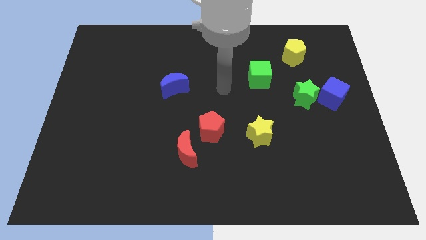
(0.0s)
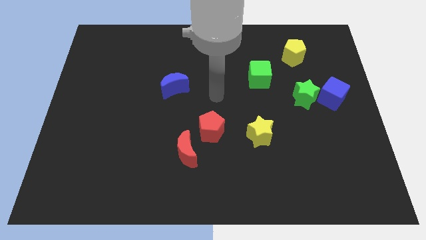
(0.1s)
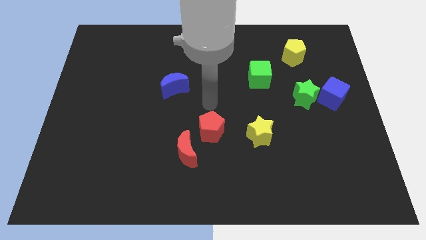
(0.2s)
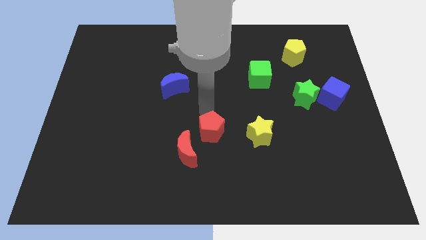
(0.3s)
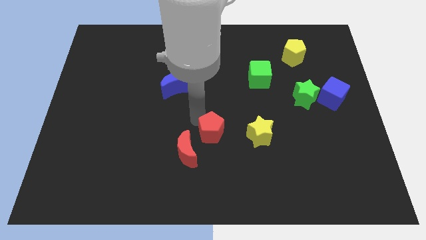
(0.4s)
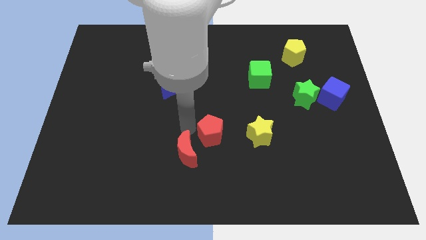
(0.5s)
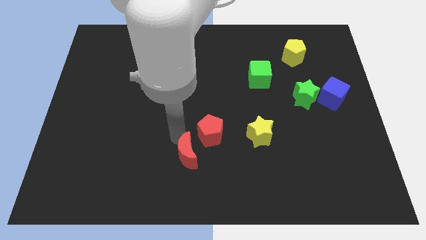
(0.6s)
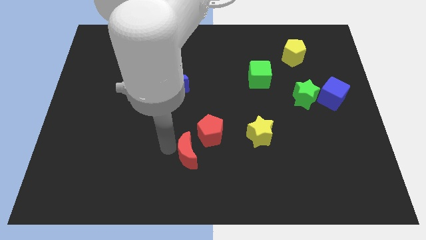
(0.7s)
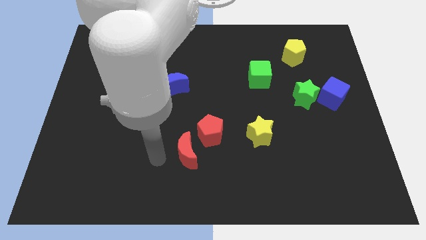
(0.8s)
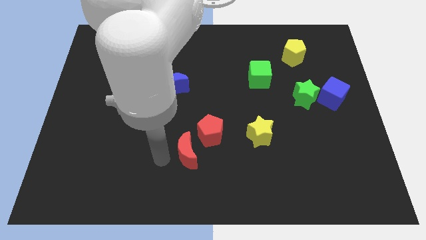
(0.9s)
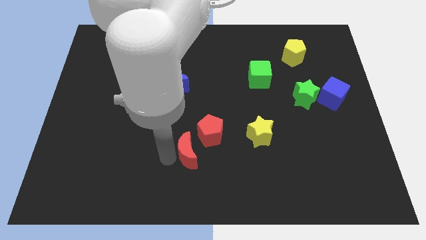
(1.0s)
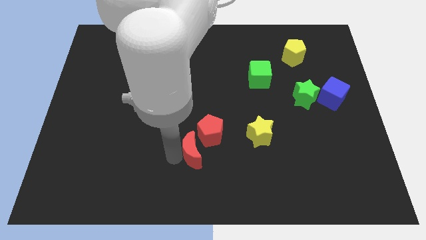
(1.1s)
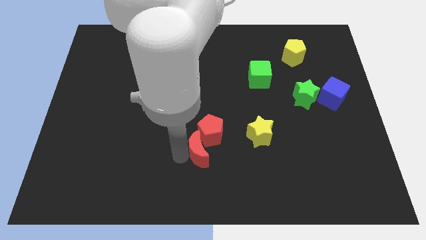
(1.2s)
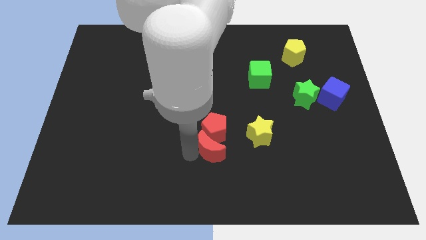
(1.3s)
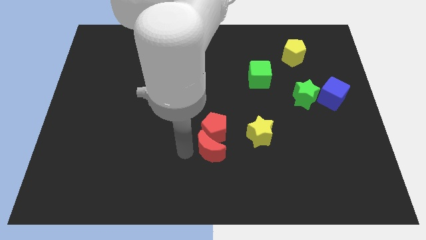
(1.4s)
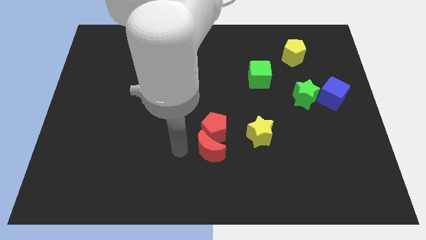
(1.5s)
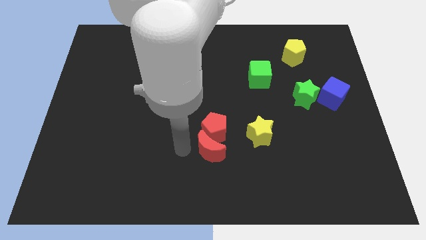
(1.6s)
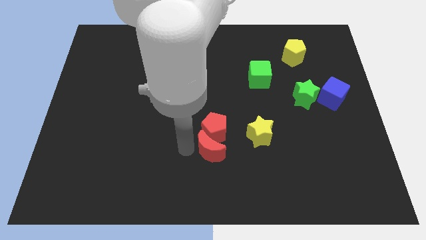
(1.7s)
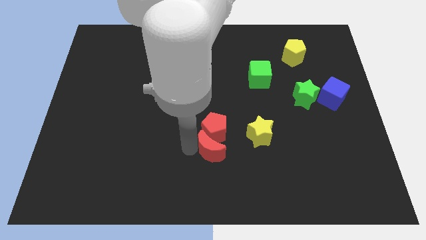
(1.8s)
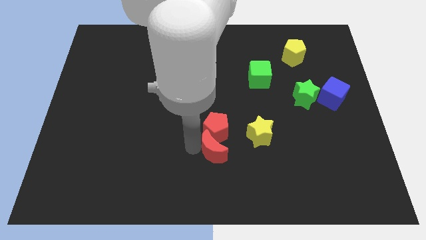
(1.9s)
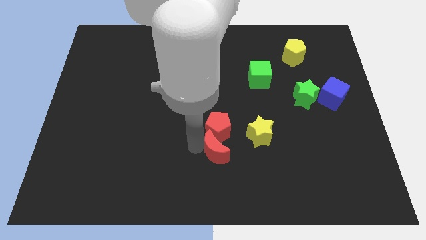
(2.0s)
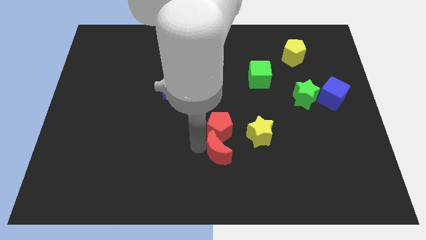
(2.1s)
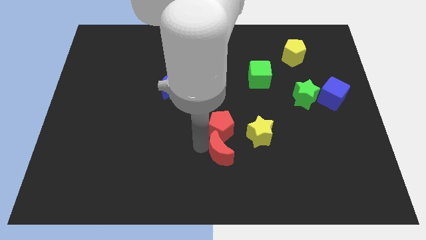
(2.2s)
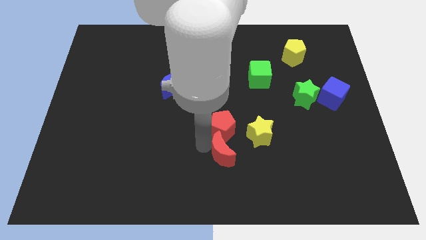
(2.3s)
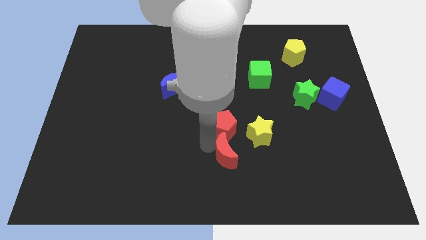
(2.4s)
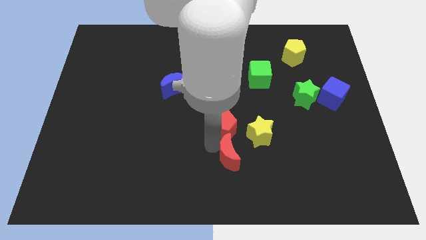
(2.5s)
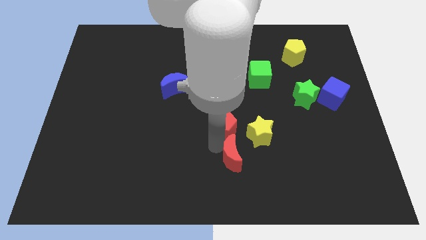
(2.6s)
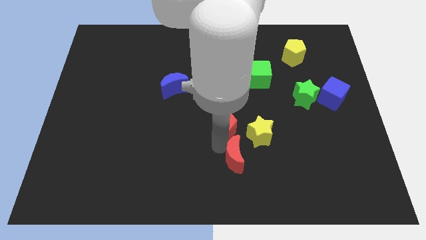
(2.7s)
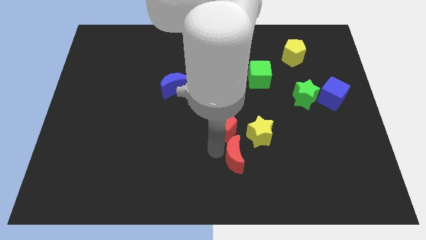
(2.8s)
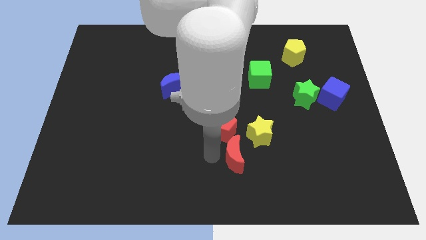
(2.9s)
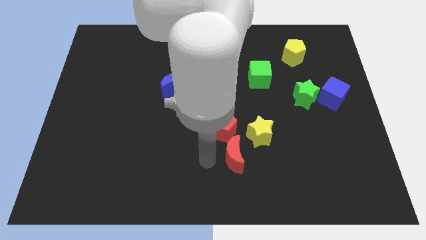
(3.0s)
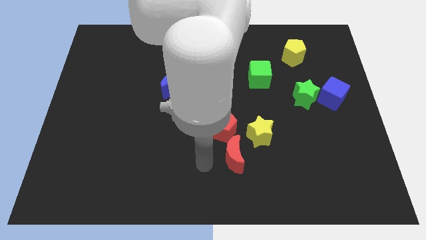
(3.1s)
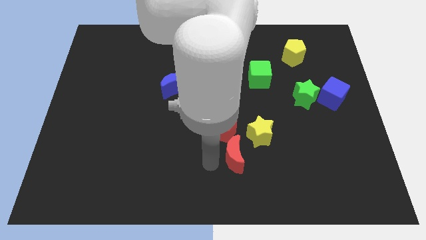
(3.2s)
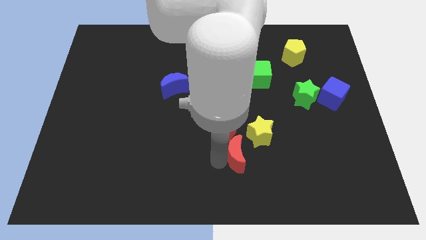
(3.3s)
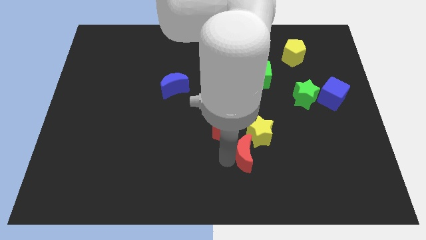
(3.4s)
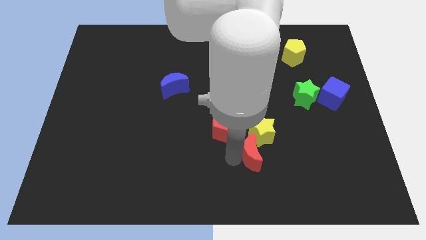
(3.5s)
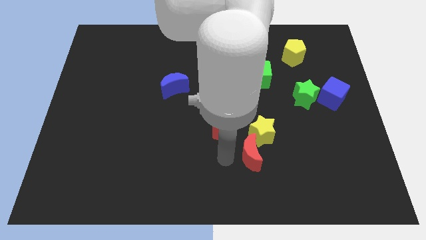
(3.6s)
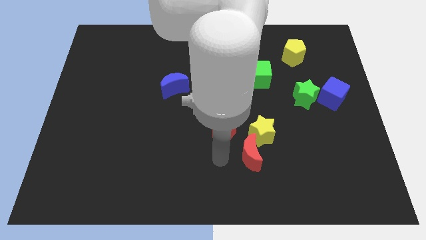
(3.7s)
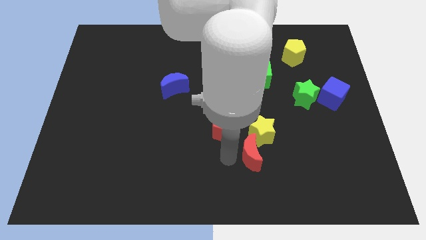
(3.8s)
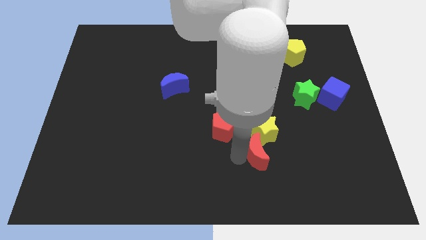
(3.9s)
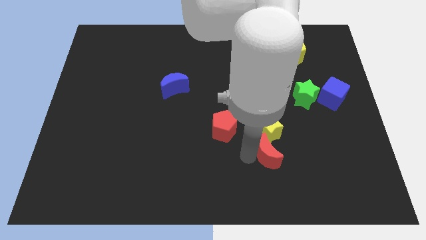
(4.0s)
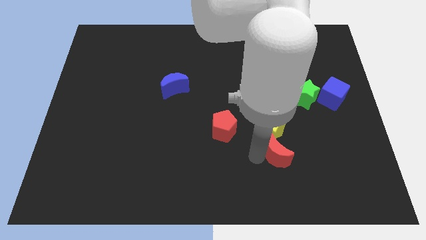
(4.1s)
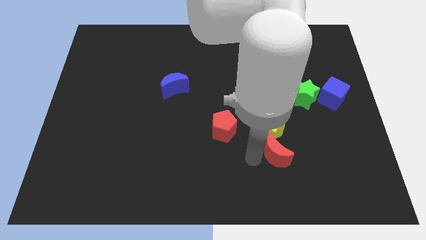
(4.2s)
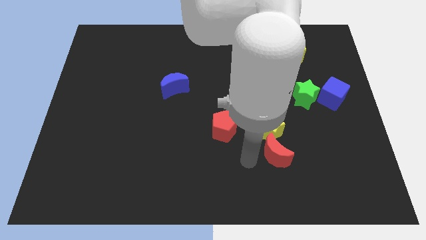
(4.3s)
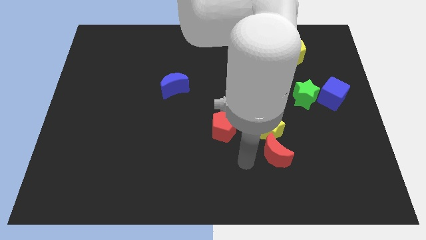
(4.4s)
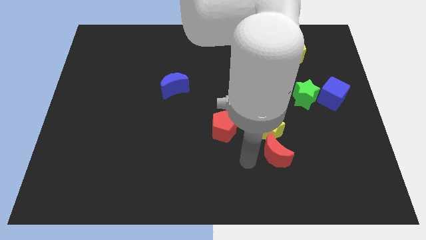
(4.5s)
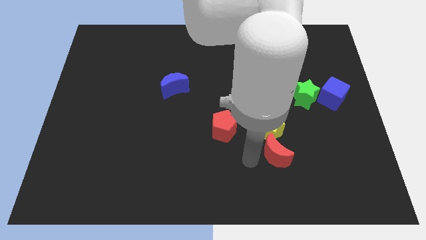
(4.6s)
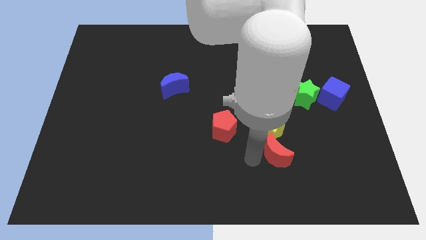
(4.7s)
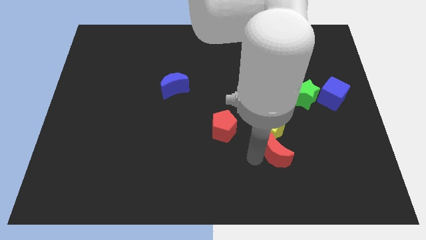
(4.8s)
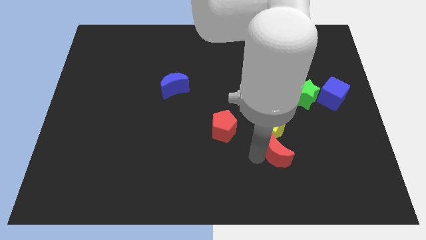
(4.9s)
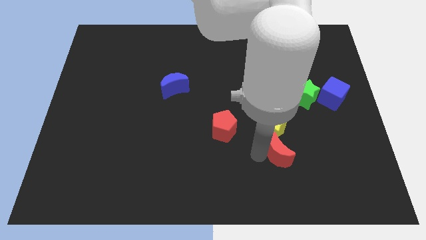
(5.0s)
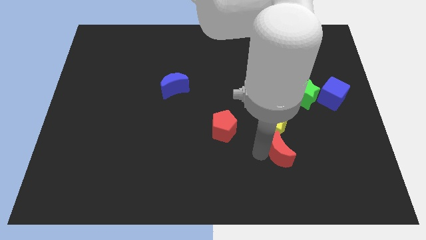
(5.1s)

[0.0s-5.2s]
move the red moon right

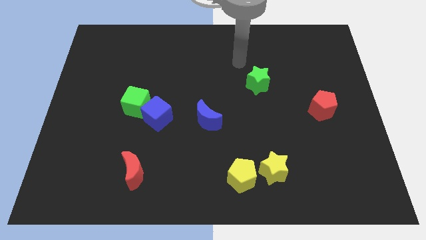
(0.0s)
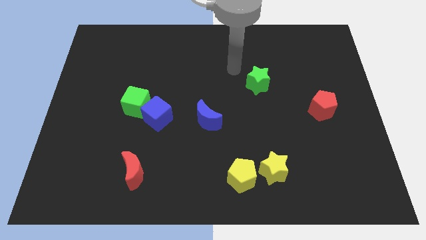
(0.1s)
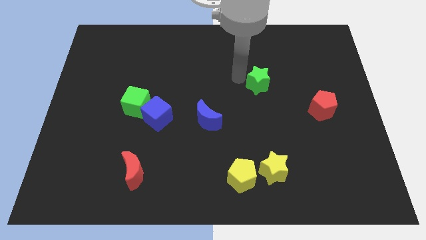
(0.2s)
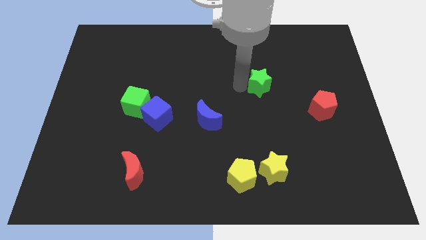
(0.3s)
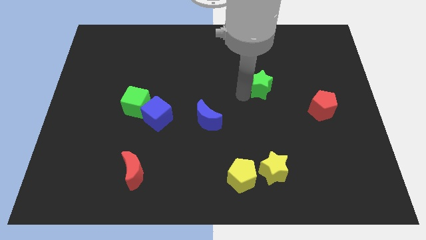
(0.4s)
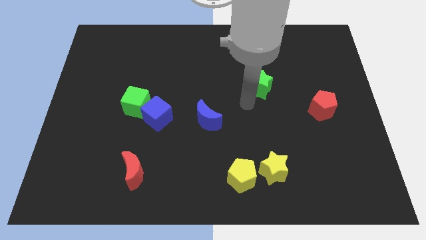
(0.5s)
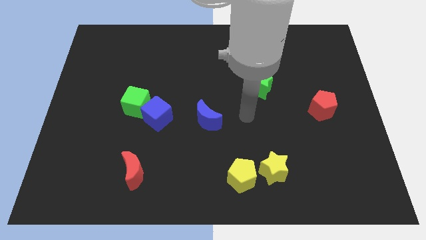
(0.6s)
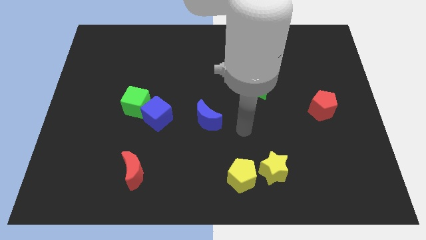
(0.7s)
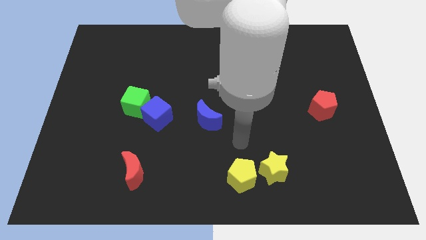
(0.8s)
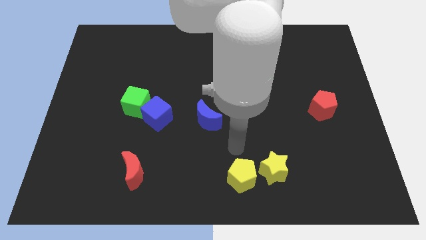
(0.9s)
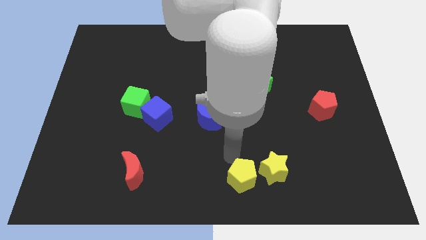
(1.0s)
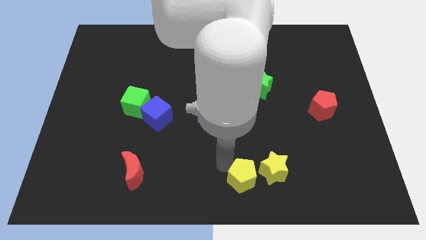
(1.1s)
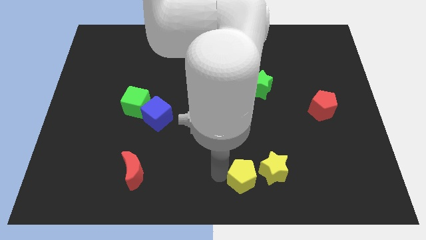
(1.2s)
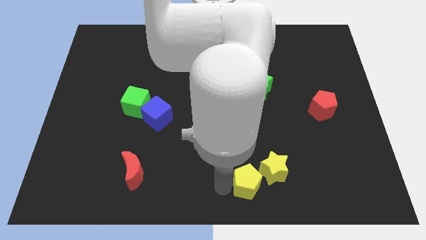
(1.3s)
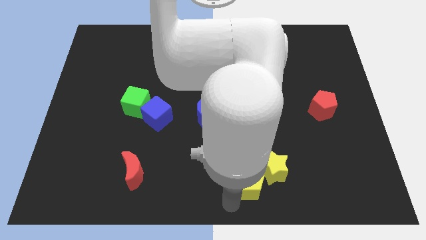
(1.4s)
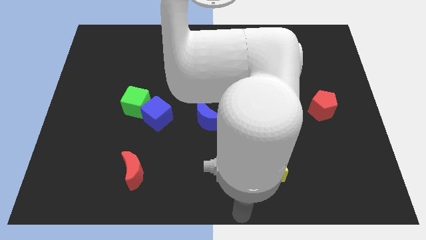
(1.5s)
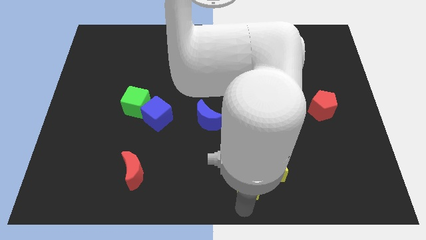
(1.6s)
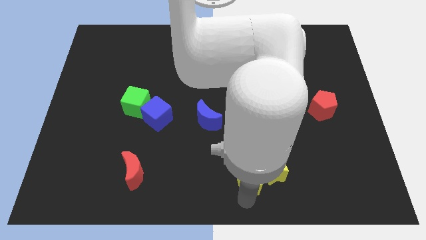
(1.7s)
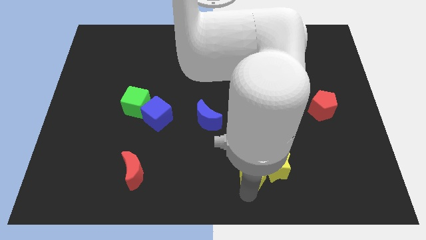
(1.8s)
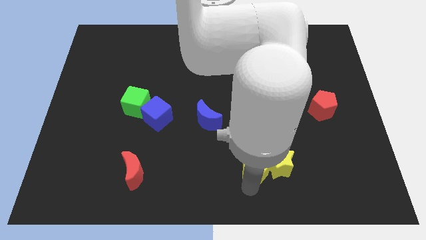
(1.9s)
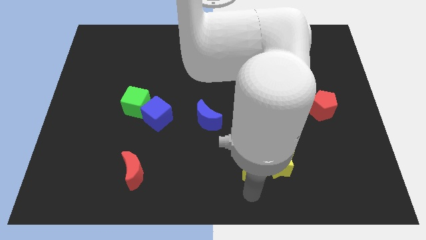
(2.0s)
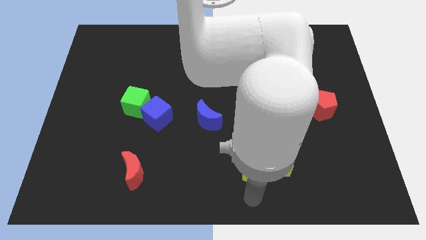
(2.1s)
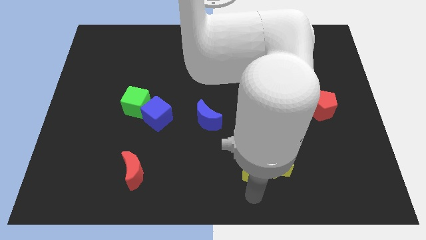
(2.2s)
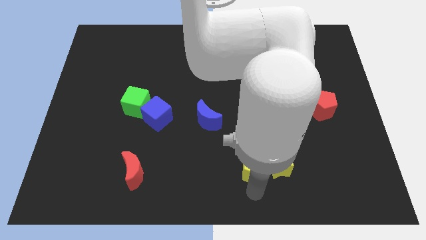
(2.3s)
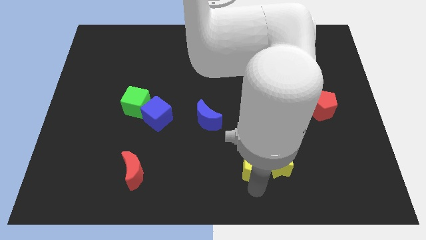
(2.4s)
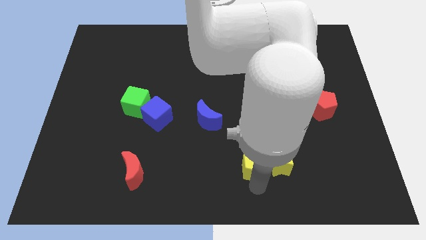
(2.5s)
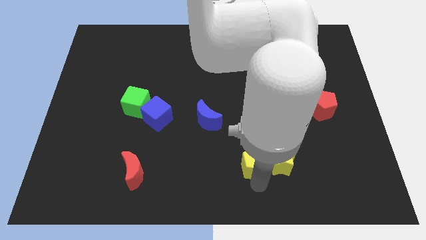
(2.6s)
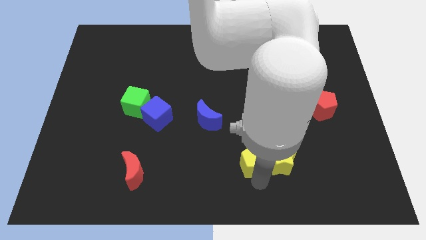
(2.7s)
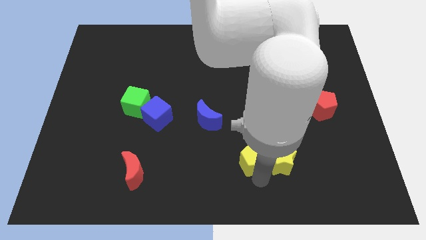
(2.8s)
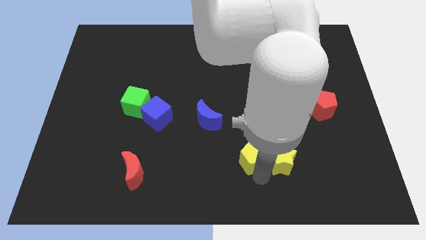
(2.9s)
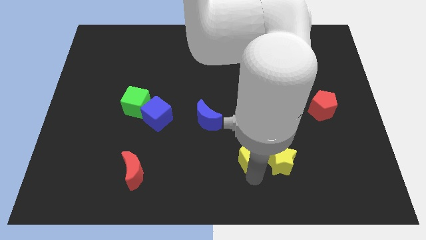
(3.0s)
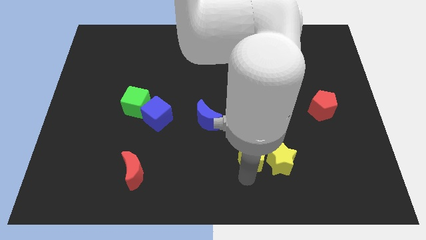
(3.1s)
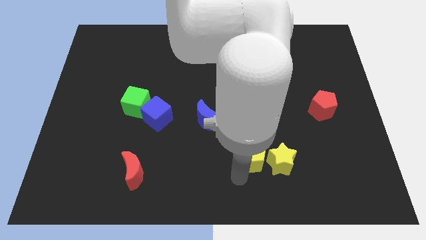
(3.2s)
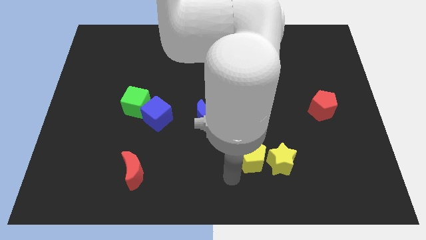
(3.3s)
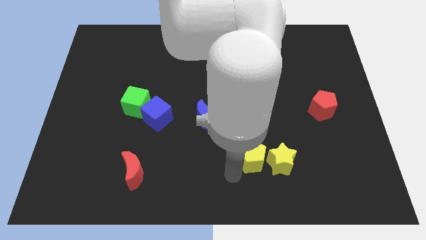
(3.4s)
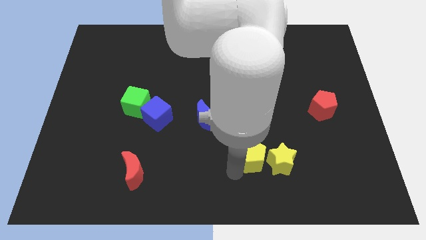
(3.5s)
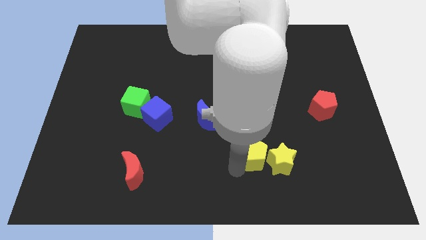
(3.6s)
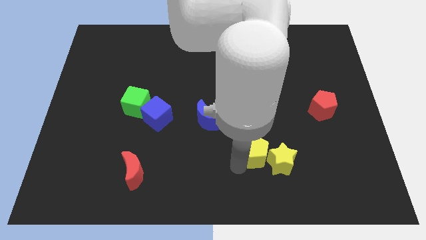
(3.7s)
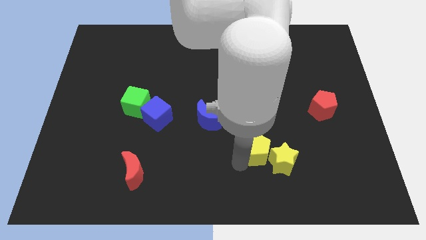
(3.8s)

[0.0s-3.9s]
slightly move the yellow pentagon upwards and then to the right
